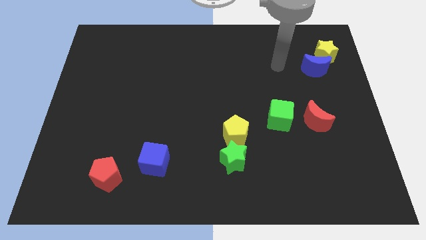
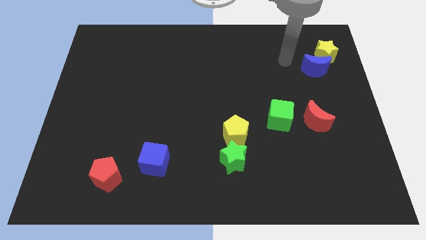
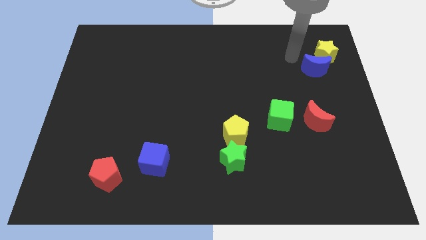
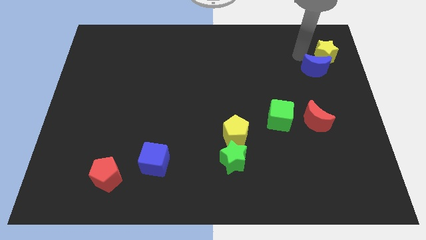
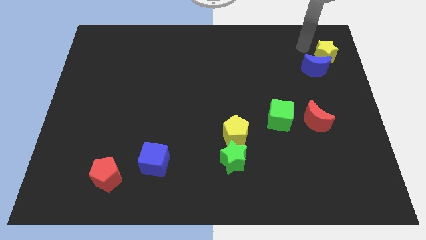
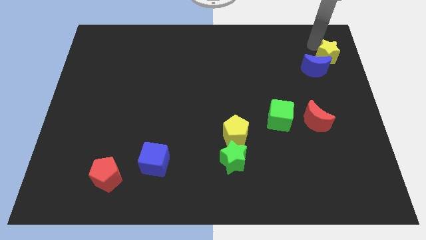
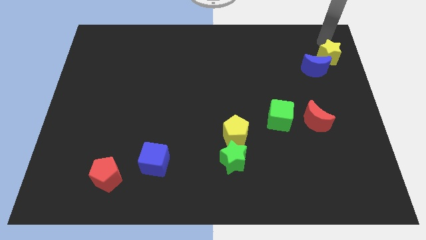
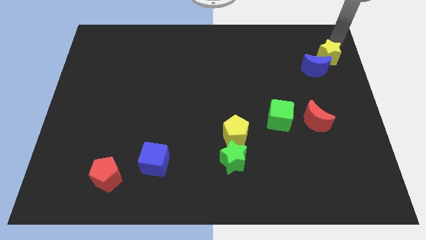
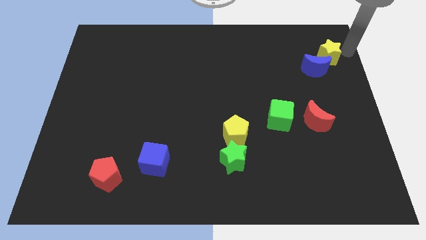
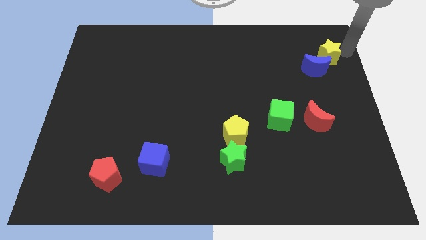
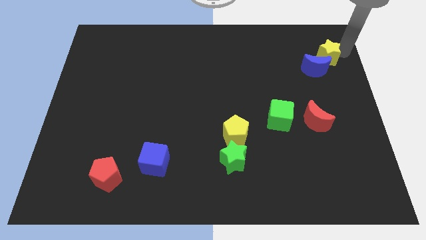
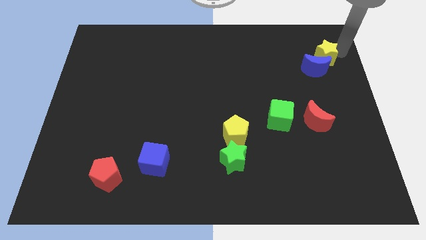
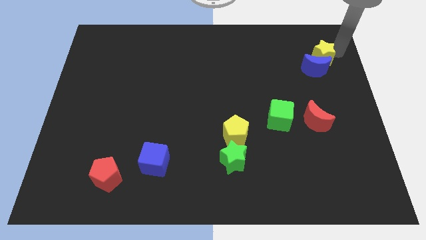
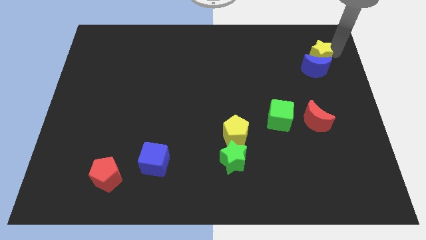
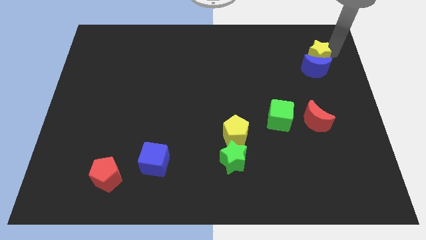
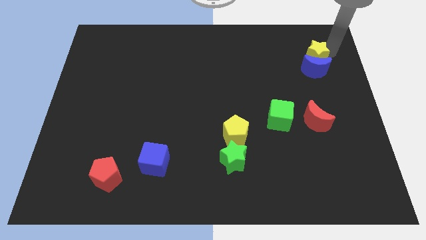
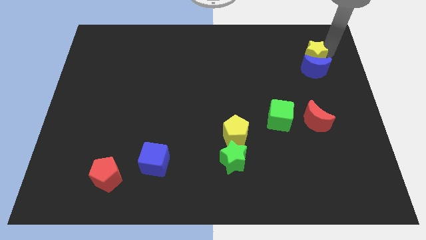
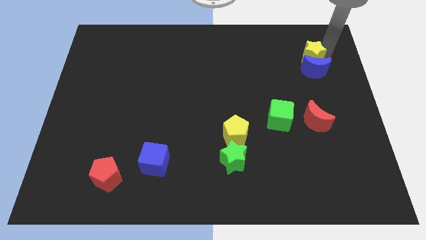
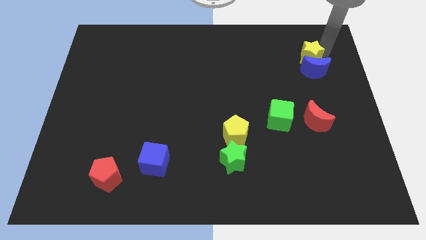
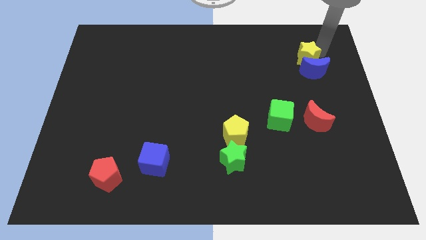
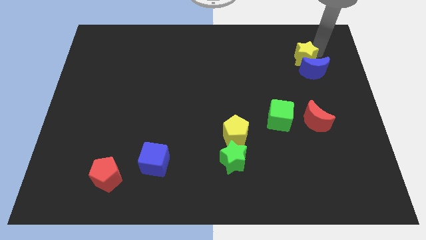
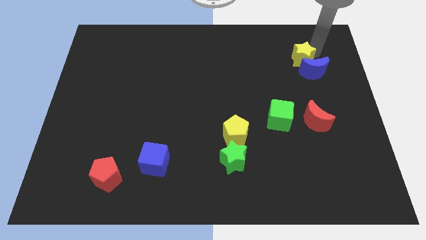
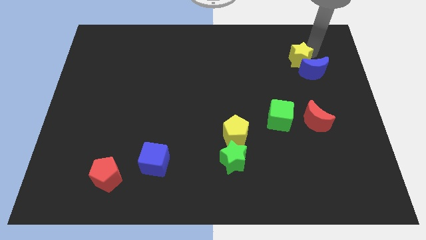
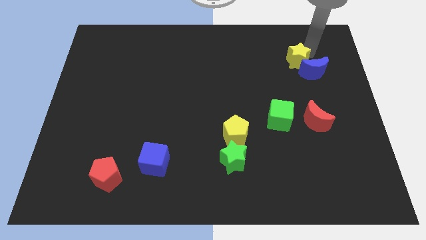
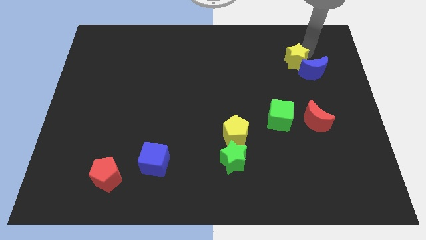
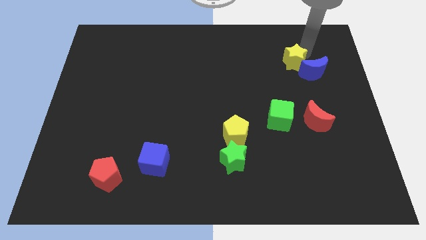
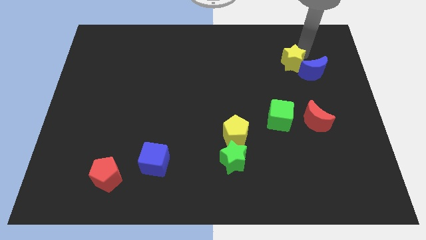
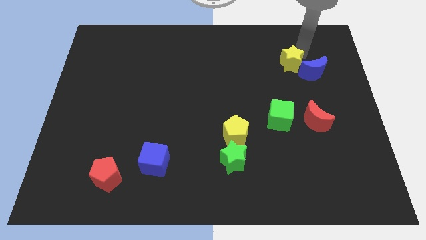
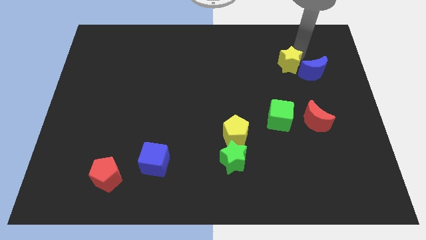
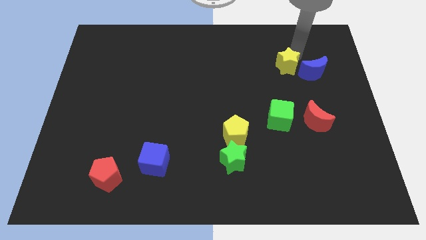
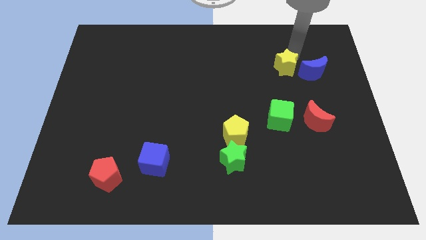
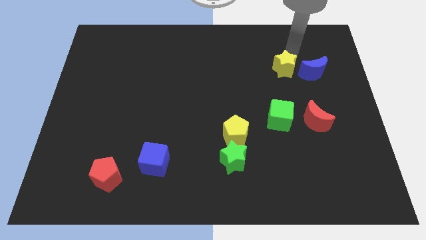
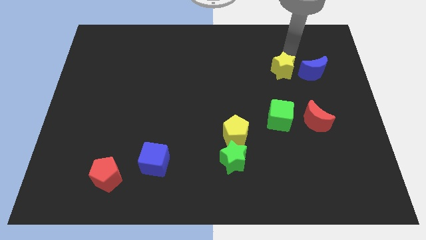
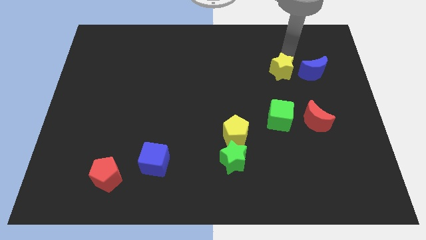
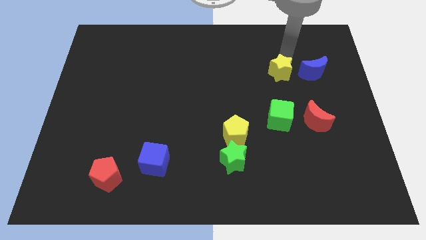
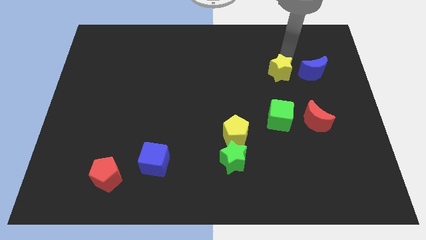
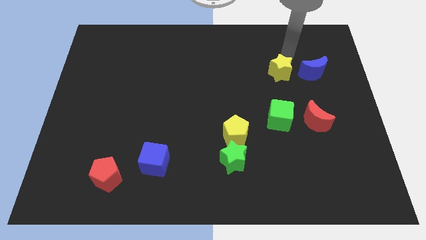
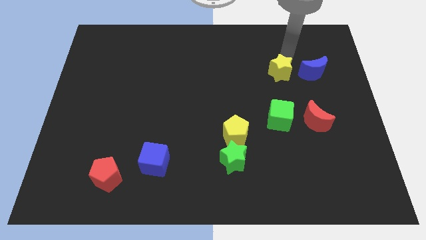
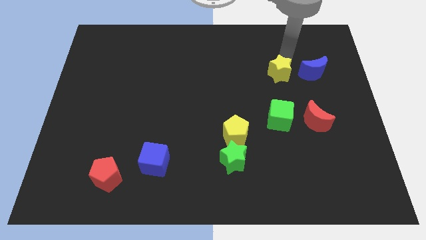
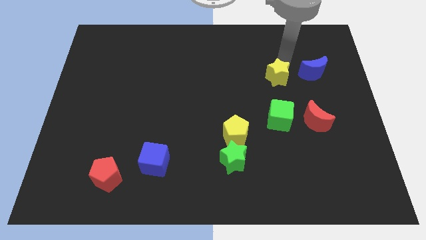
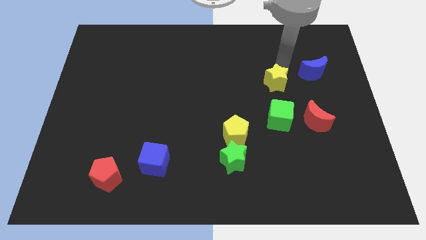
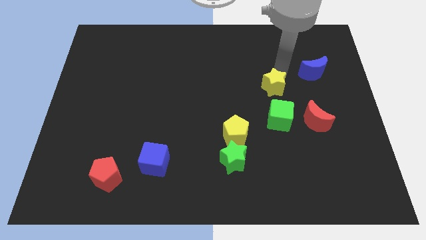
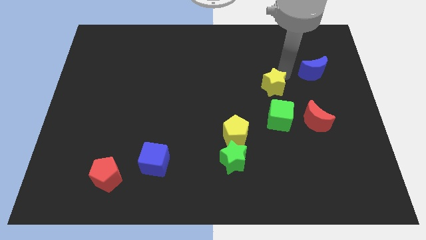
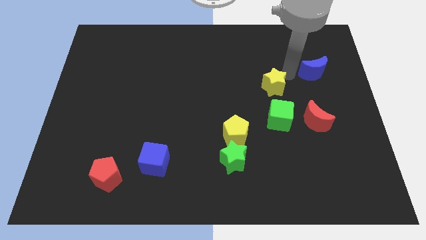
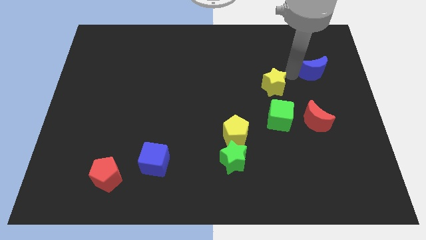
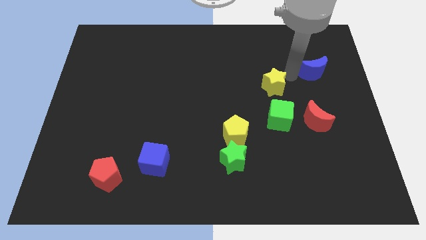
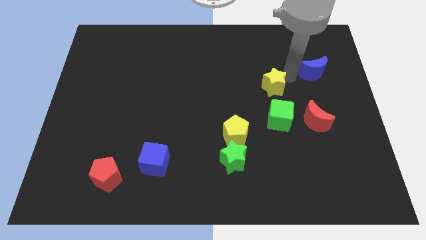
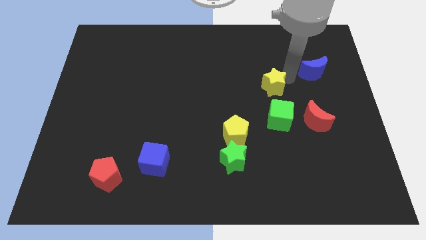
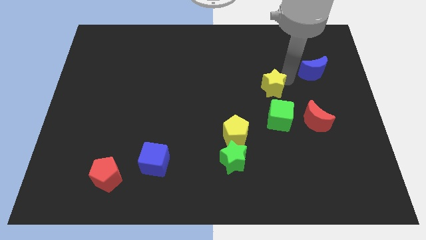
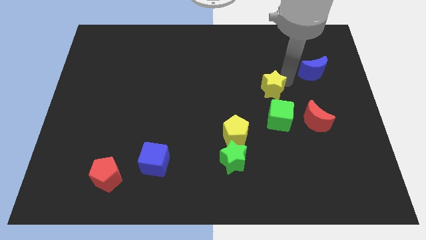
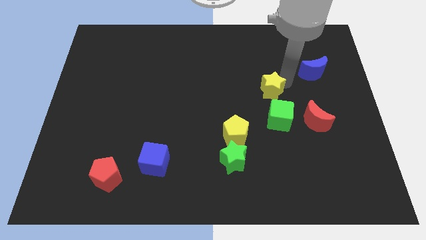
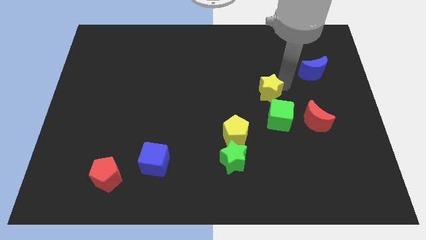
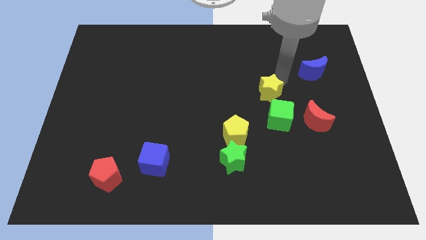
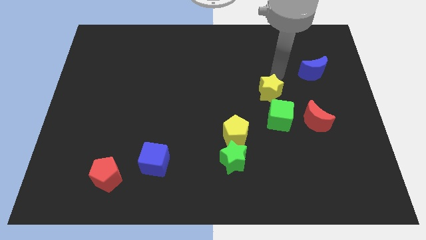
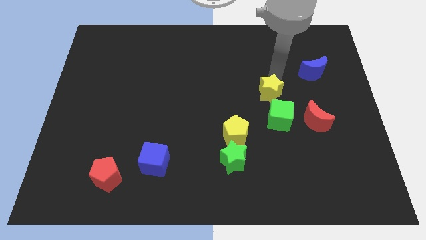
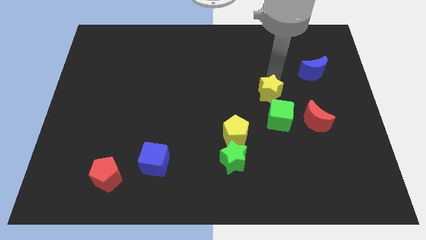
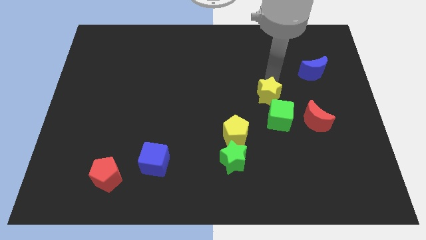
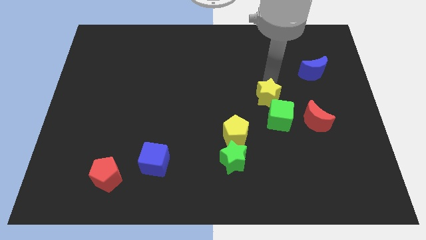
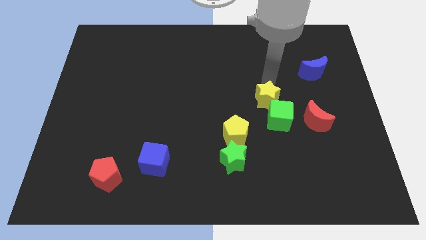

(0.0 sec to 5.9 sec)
move the yellow star diagonally up and to the right of the yellow pentagon
